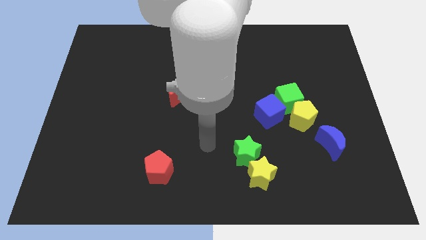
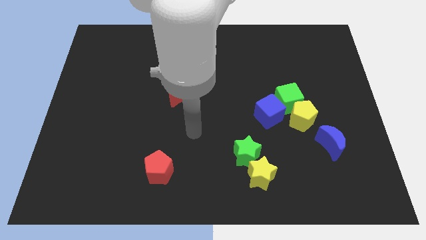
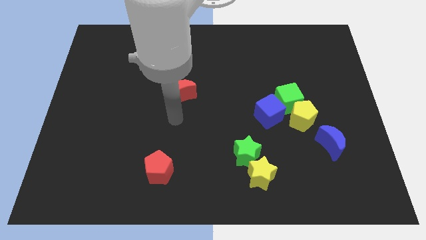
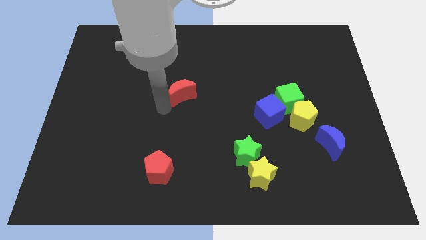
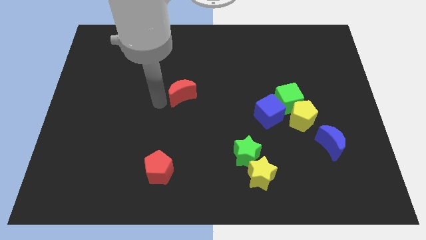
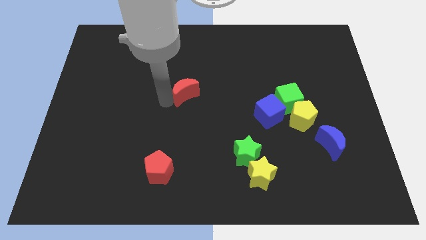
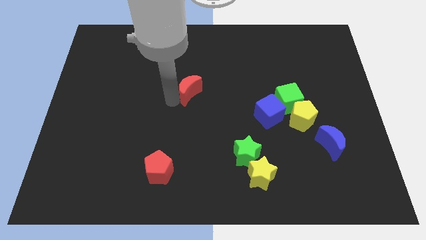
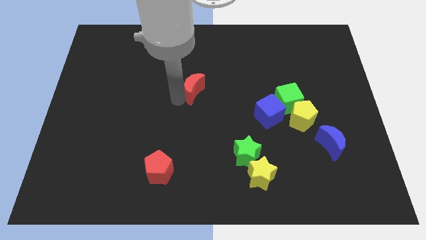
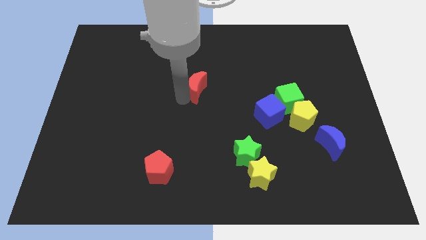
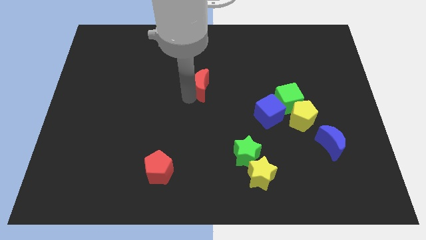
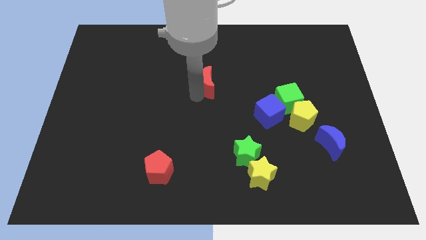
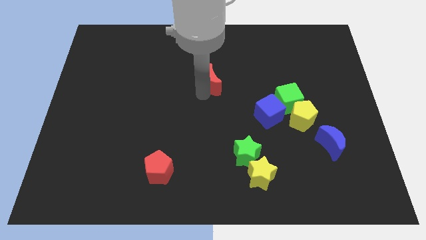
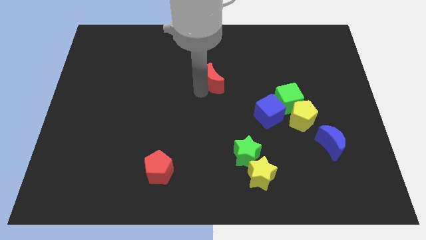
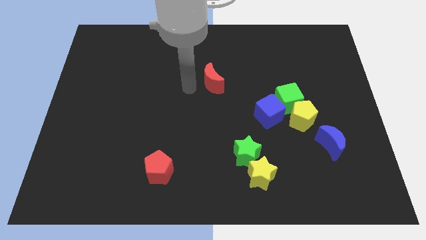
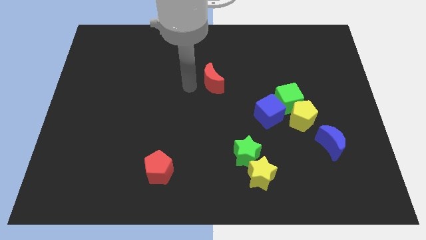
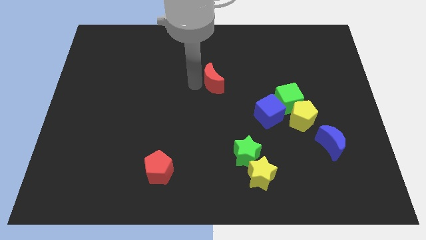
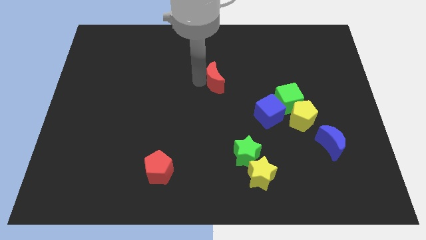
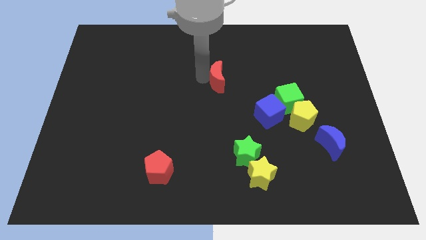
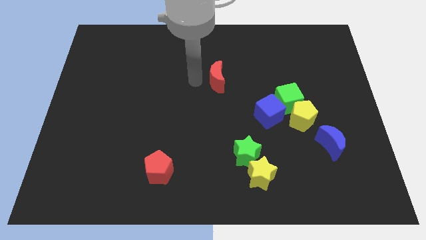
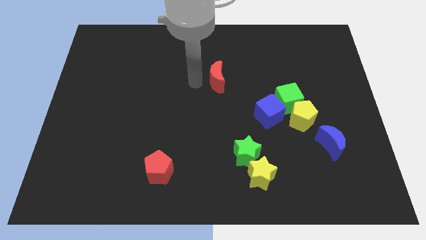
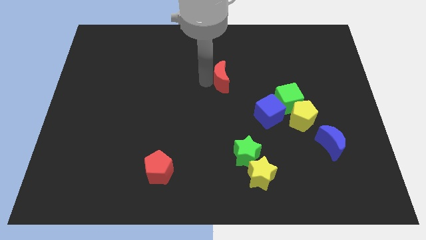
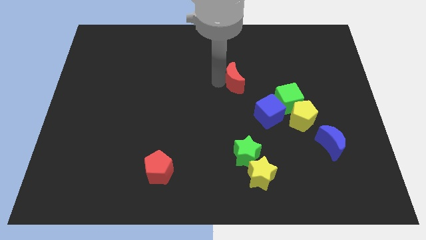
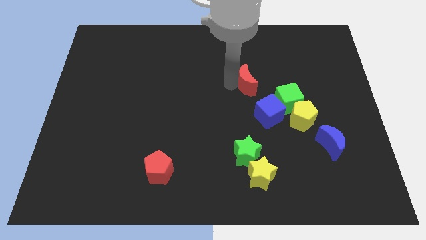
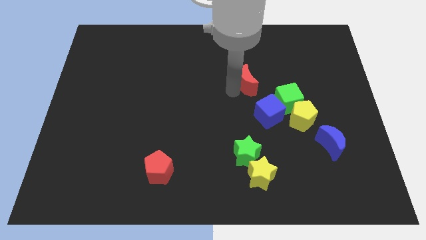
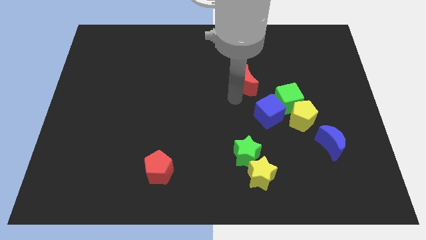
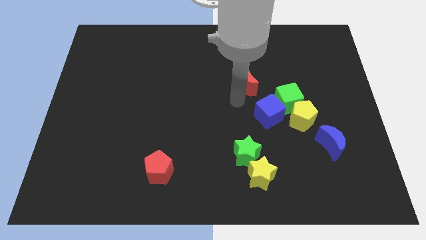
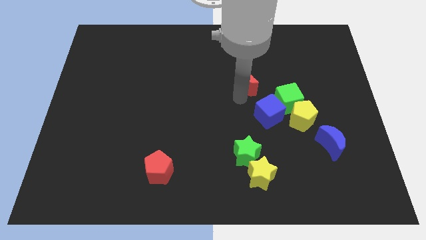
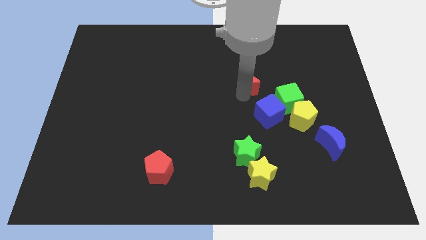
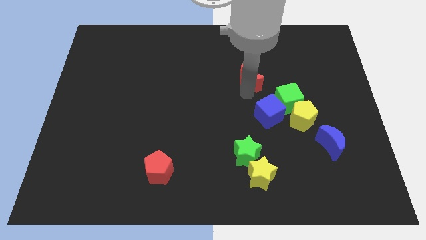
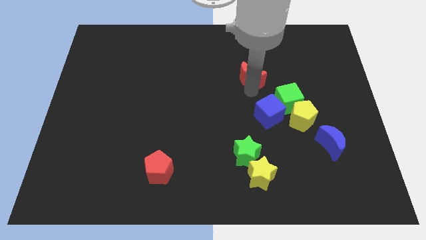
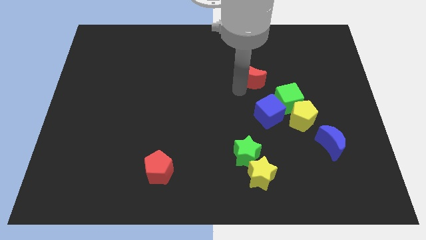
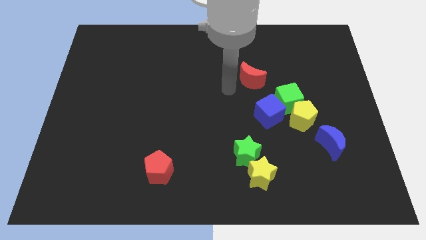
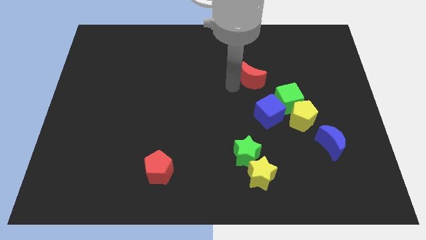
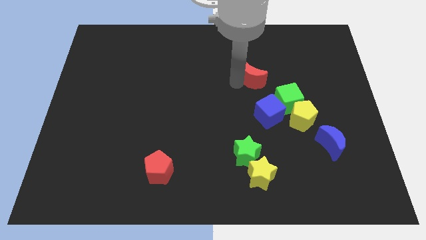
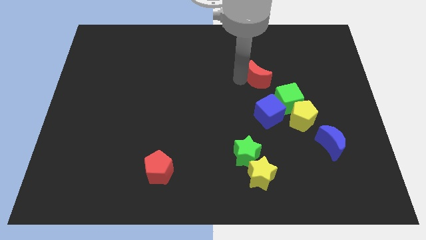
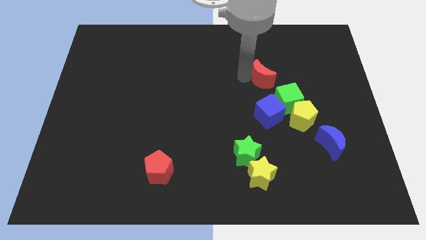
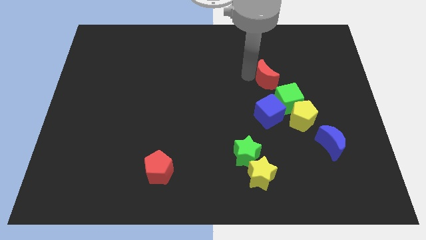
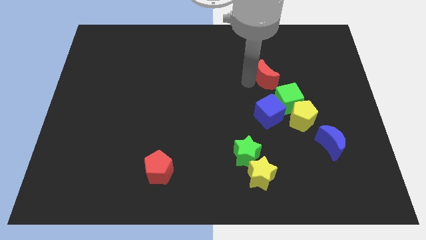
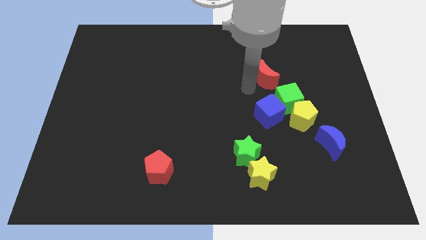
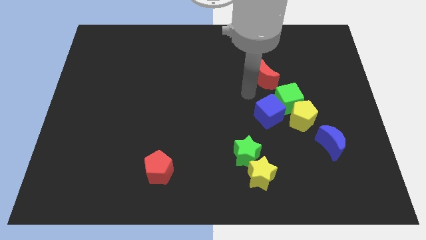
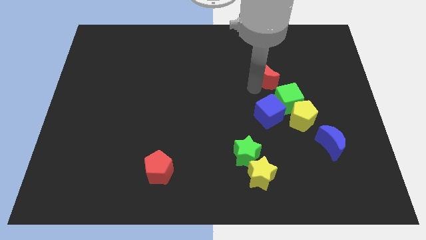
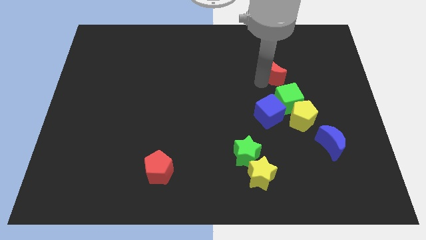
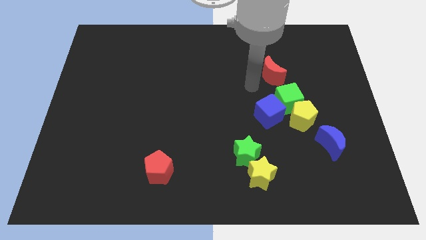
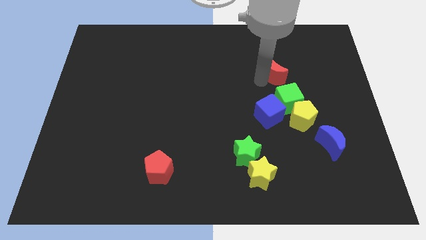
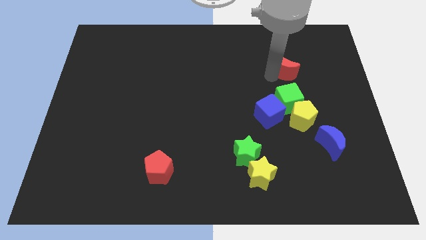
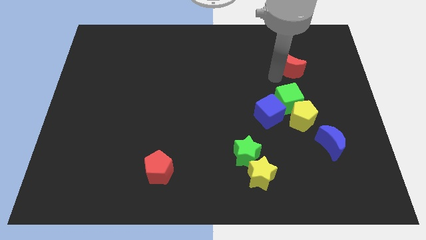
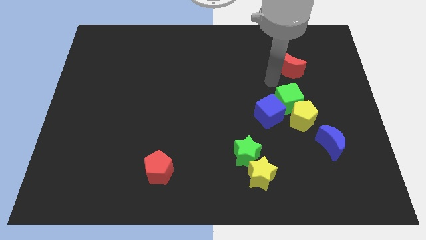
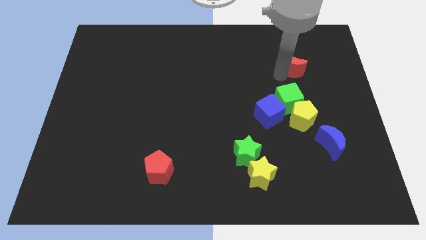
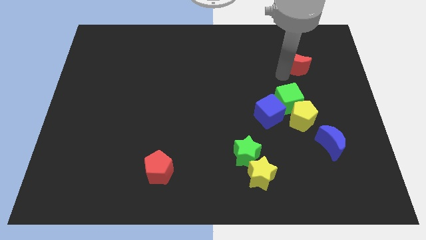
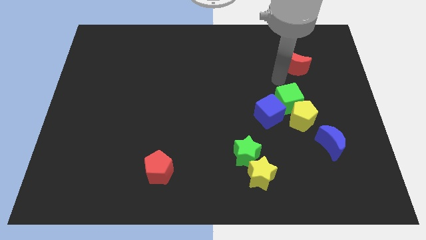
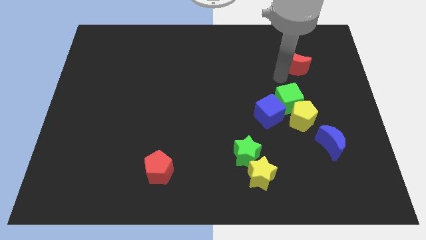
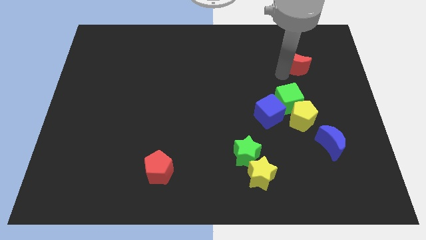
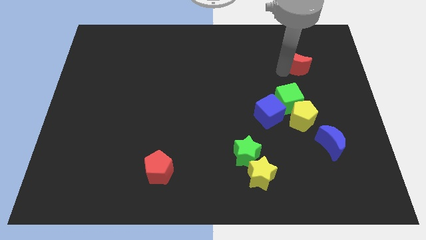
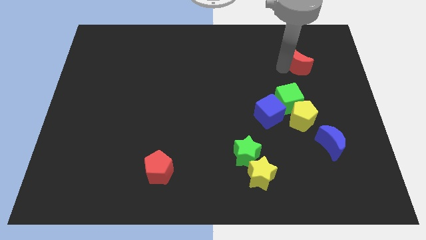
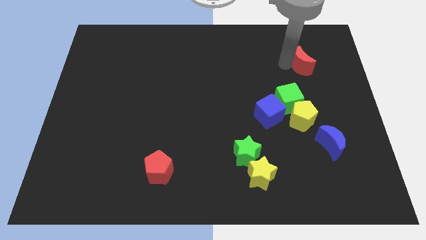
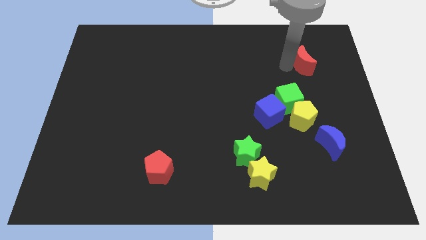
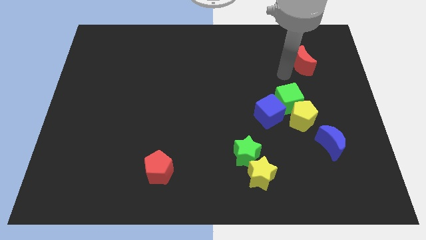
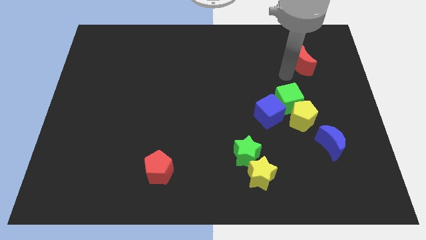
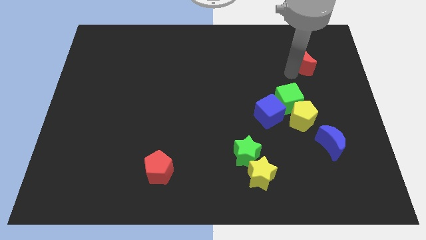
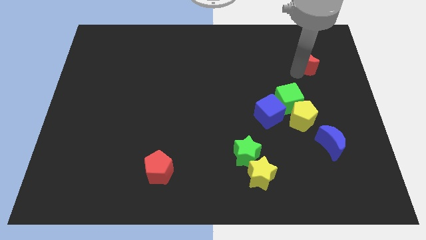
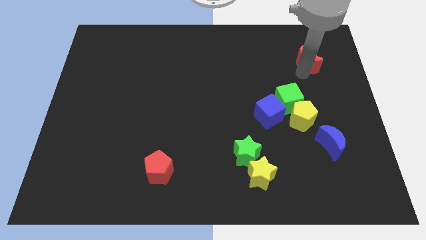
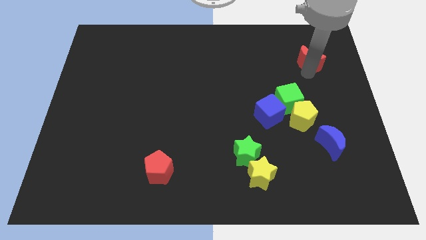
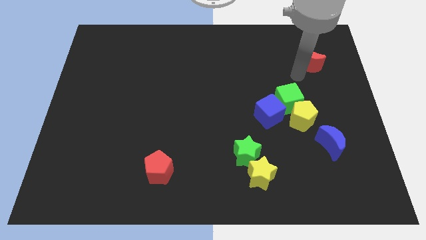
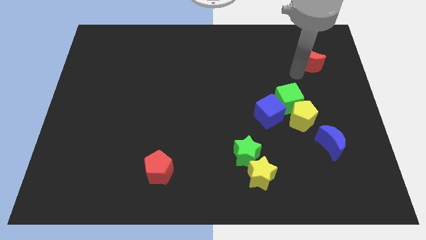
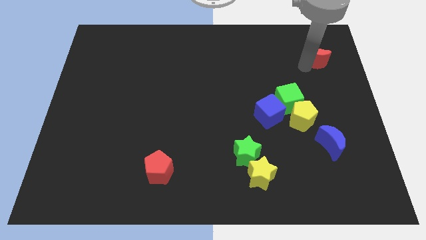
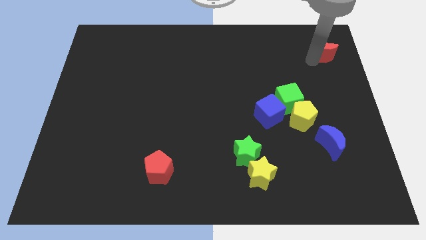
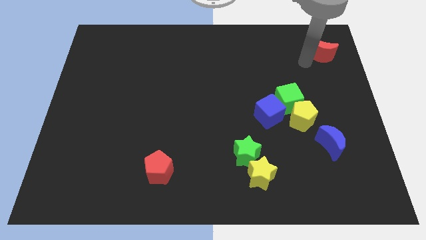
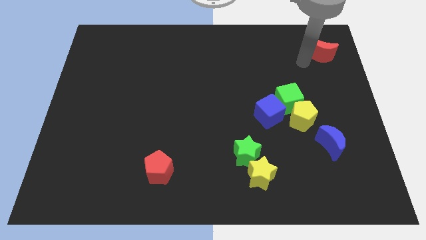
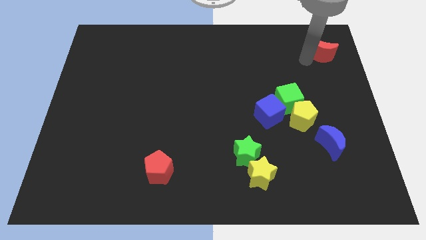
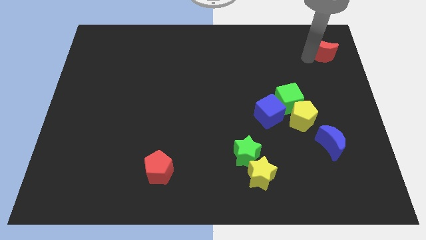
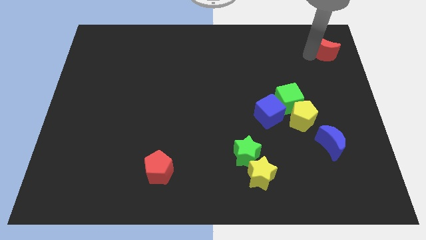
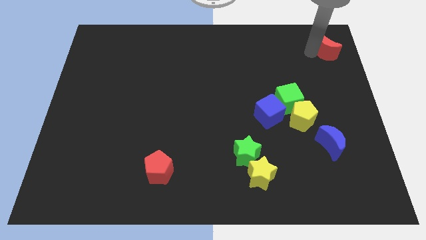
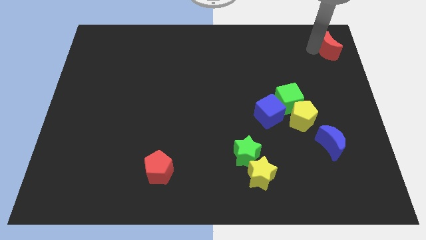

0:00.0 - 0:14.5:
push the red moon to the top right
